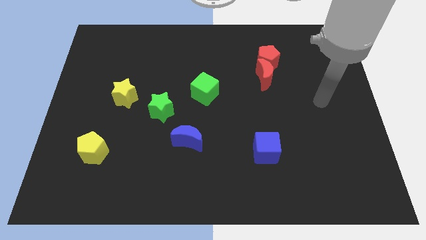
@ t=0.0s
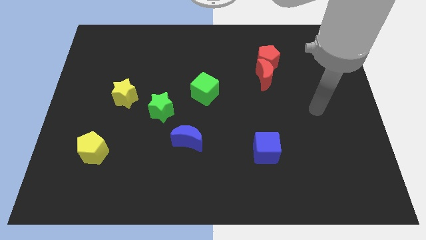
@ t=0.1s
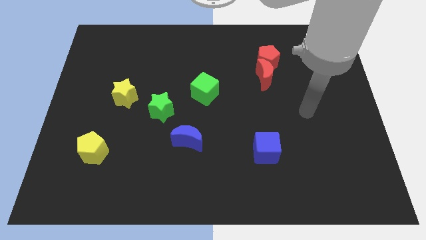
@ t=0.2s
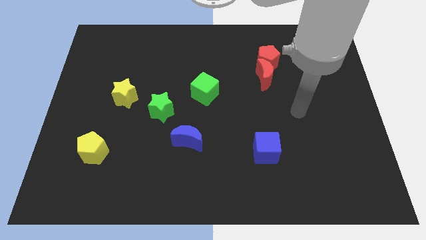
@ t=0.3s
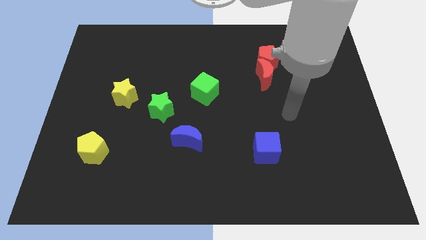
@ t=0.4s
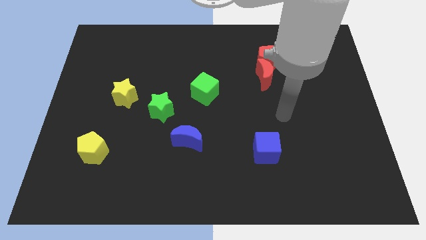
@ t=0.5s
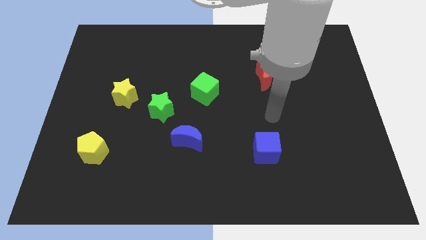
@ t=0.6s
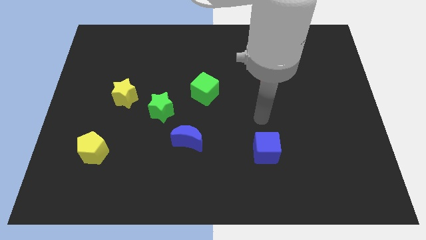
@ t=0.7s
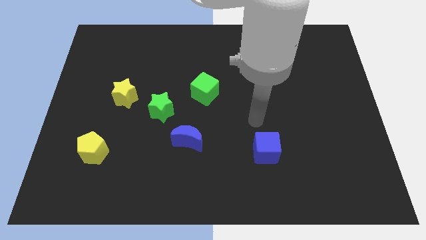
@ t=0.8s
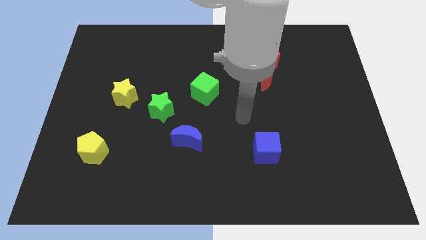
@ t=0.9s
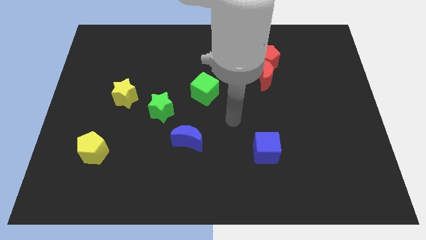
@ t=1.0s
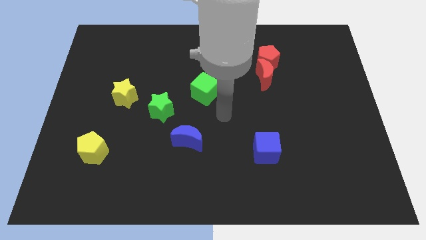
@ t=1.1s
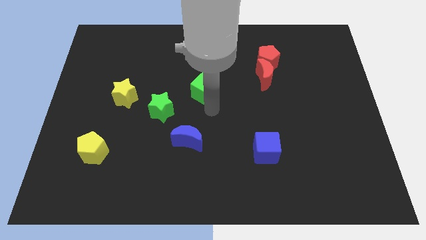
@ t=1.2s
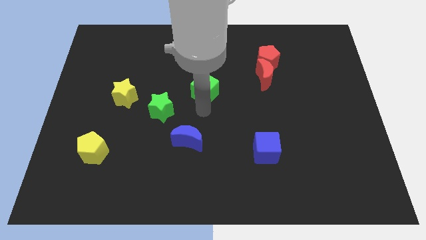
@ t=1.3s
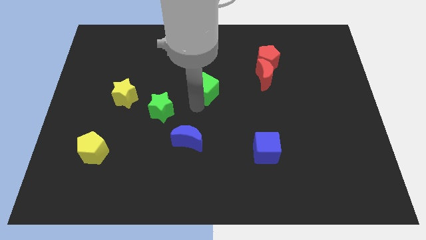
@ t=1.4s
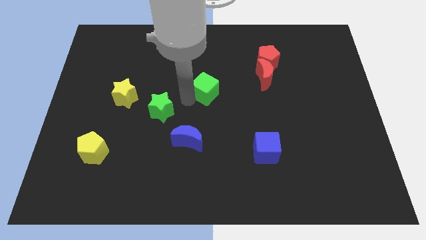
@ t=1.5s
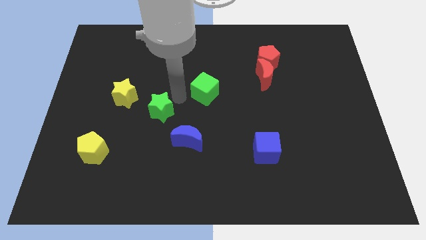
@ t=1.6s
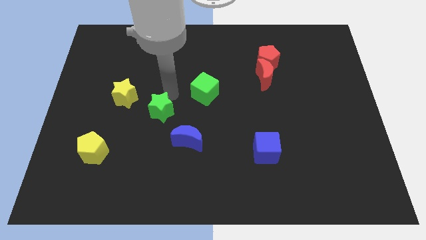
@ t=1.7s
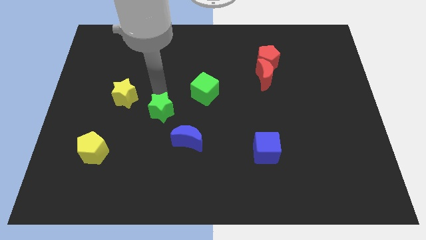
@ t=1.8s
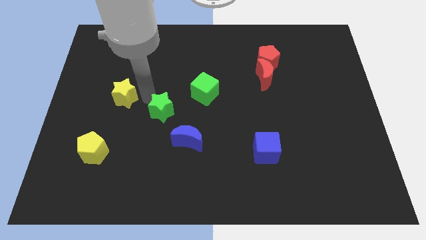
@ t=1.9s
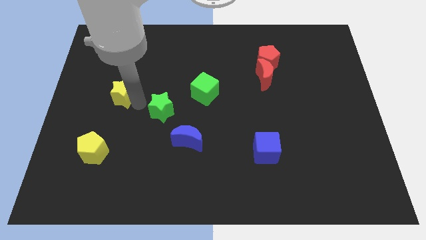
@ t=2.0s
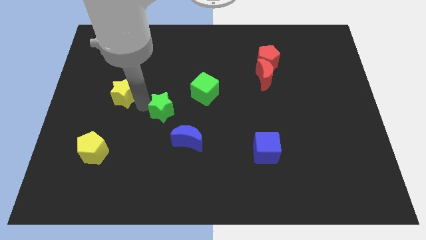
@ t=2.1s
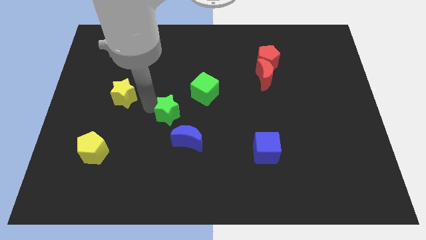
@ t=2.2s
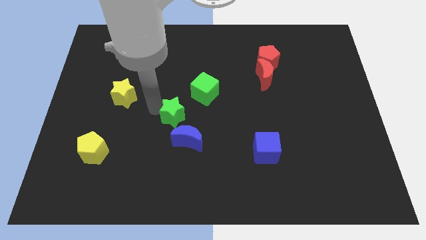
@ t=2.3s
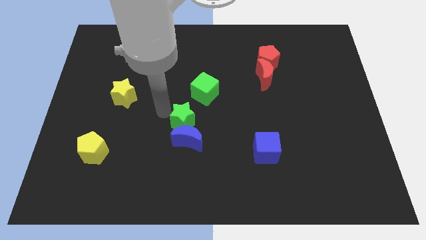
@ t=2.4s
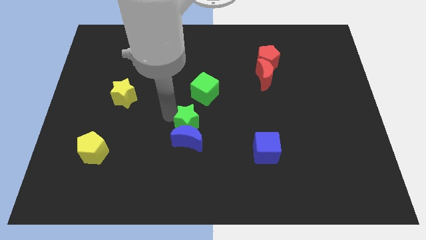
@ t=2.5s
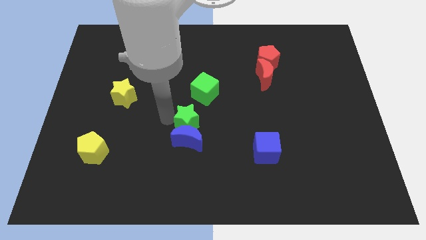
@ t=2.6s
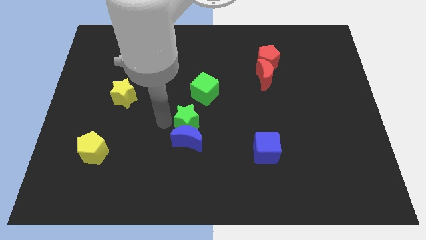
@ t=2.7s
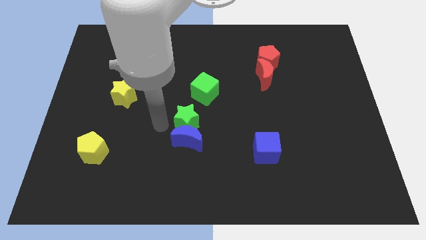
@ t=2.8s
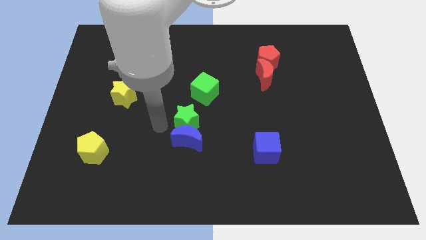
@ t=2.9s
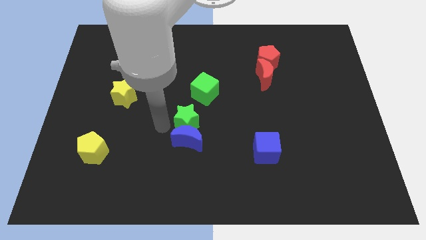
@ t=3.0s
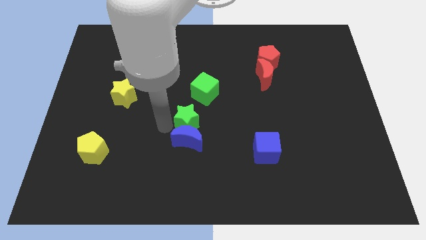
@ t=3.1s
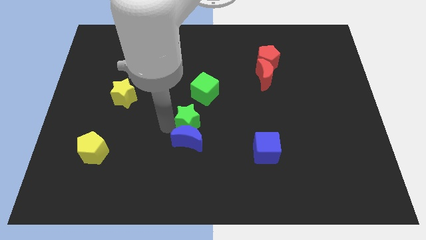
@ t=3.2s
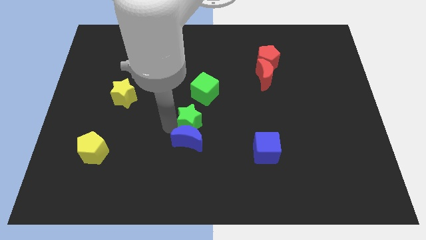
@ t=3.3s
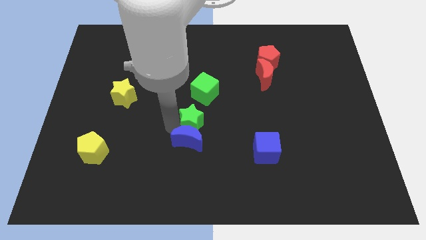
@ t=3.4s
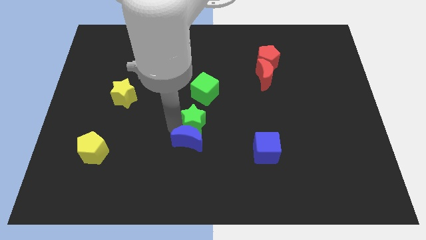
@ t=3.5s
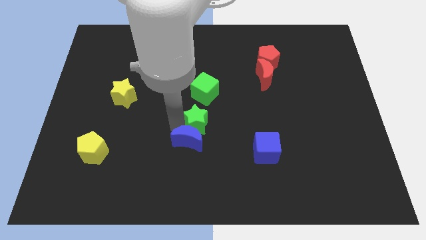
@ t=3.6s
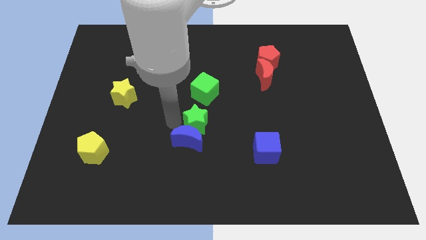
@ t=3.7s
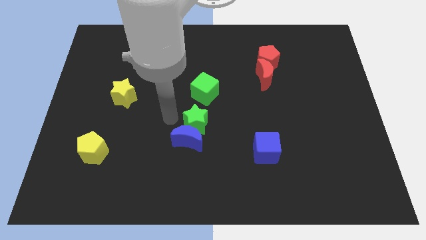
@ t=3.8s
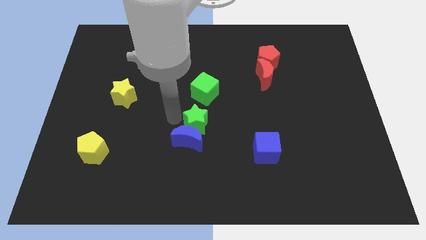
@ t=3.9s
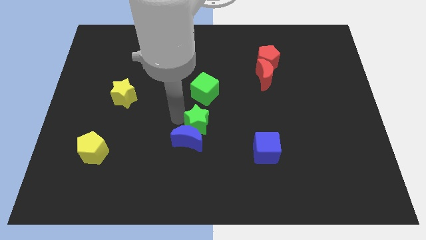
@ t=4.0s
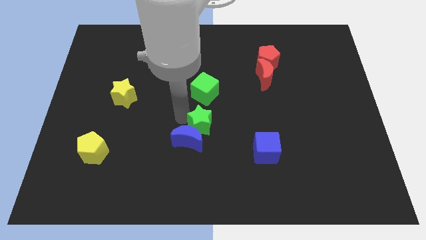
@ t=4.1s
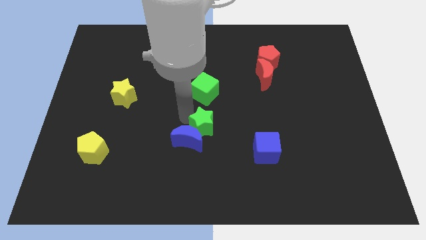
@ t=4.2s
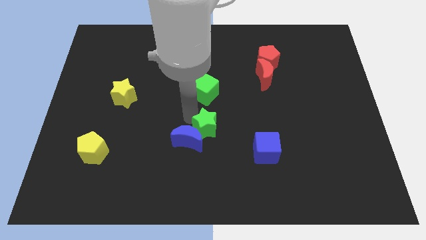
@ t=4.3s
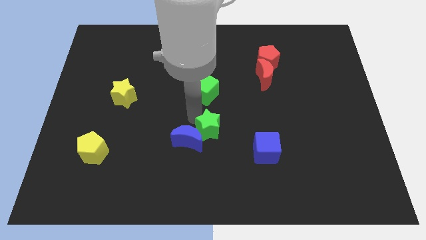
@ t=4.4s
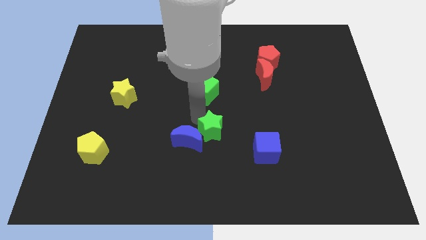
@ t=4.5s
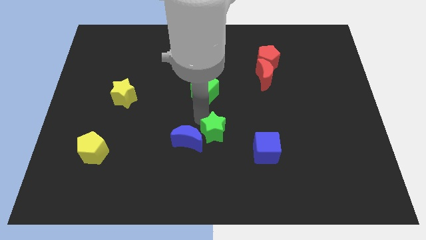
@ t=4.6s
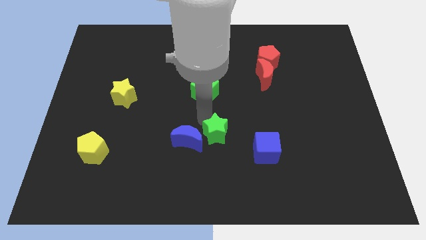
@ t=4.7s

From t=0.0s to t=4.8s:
push the green star diagonally up and to the left of the blue cube

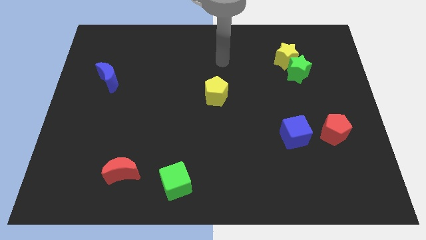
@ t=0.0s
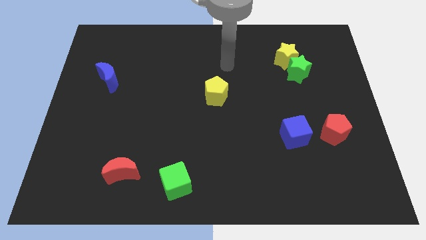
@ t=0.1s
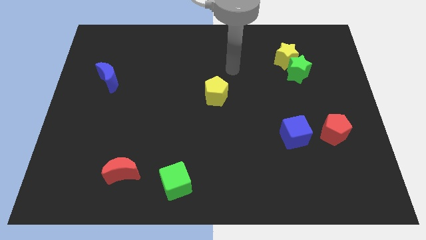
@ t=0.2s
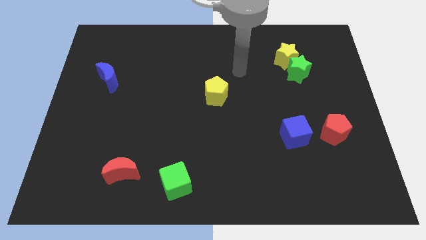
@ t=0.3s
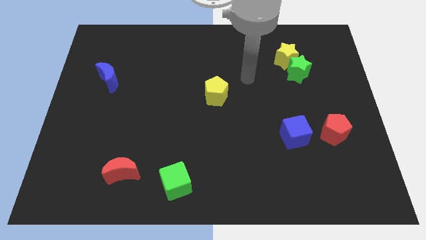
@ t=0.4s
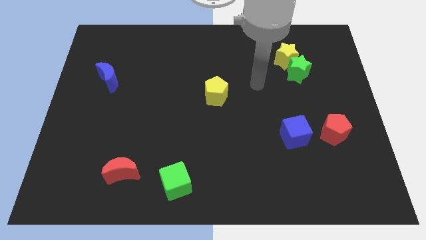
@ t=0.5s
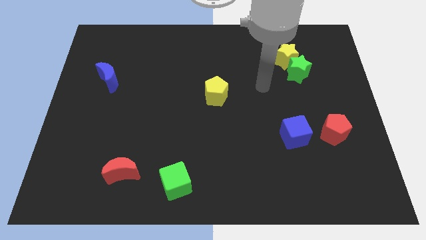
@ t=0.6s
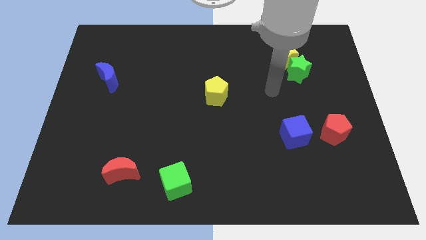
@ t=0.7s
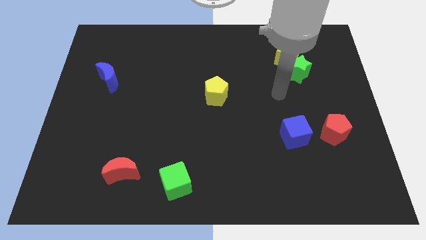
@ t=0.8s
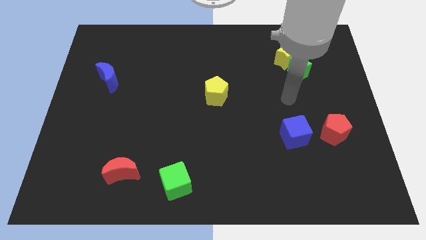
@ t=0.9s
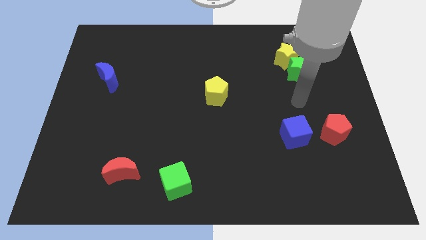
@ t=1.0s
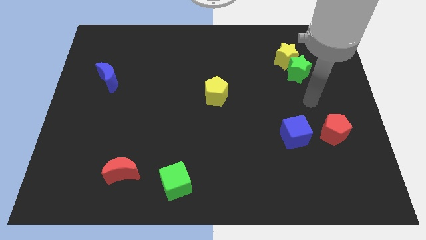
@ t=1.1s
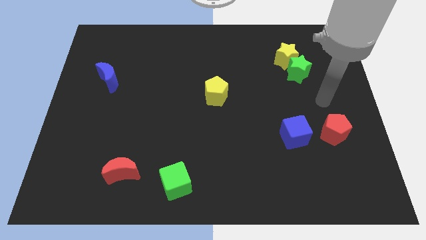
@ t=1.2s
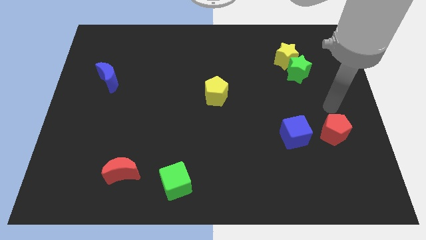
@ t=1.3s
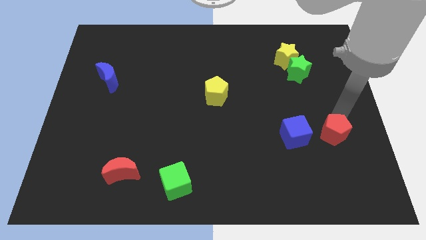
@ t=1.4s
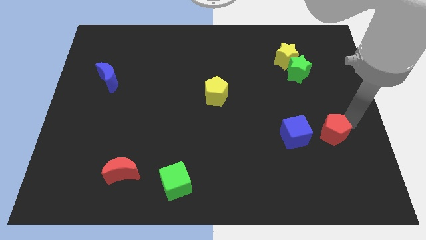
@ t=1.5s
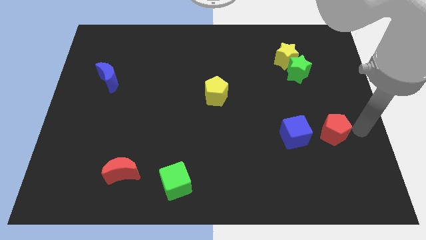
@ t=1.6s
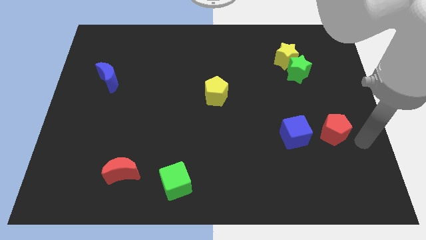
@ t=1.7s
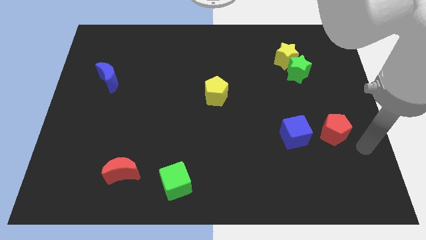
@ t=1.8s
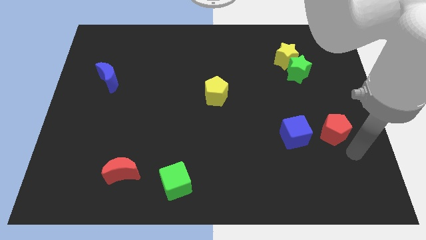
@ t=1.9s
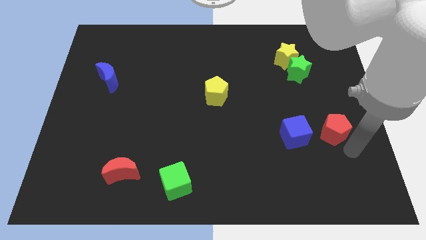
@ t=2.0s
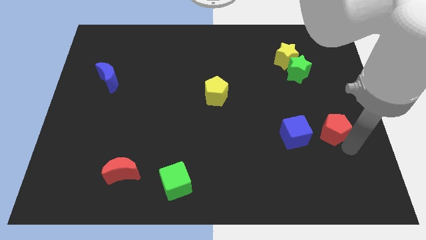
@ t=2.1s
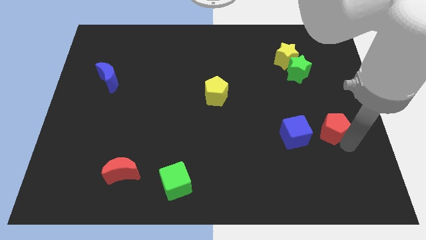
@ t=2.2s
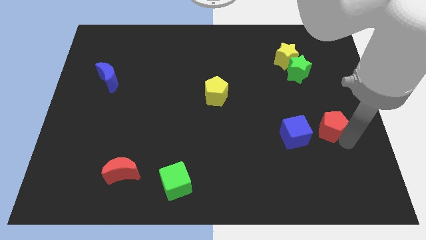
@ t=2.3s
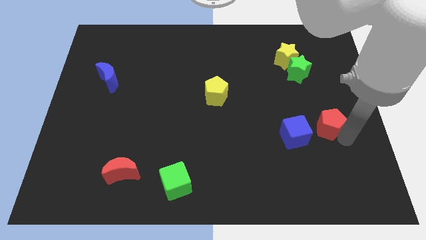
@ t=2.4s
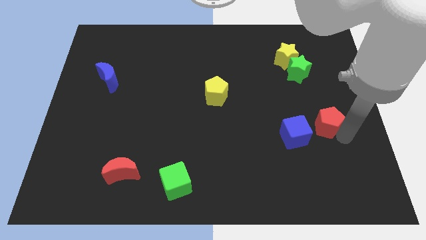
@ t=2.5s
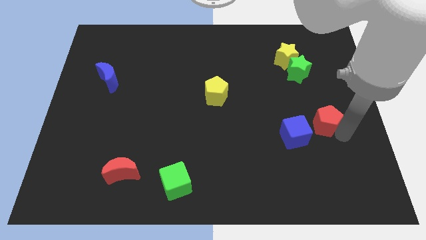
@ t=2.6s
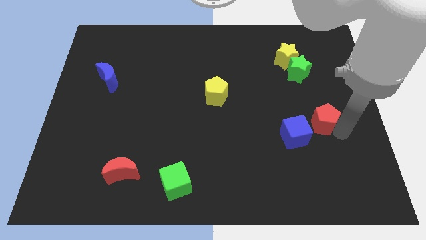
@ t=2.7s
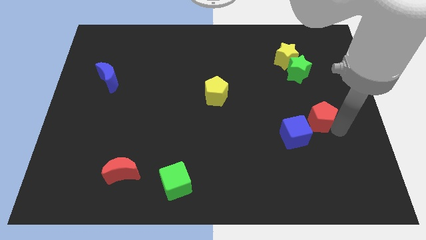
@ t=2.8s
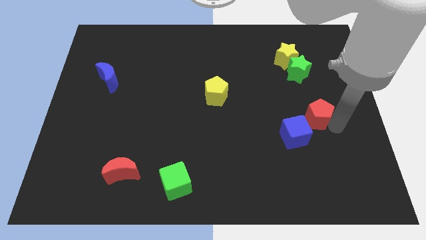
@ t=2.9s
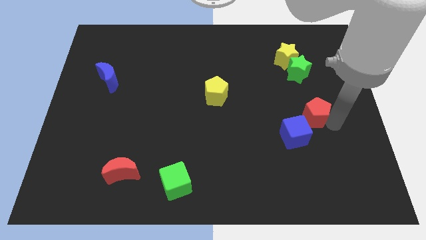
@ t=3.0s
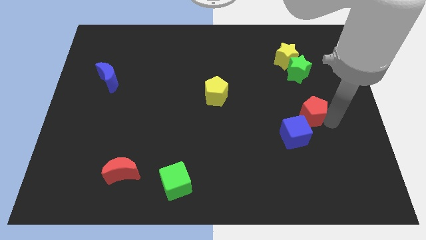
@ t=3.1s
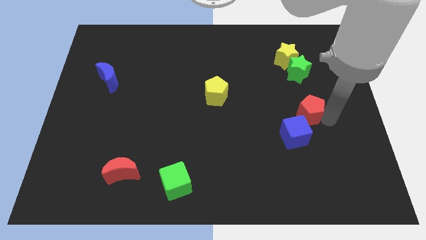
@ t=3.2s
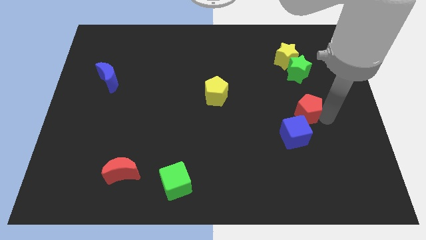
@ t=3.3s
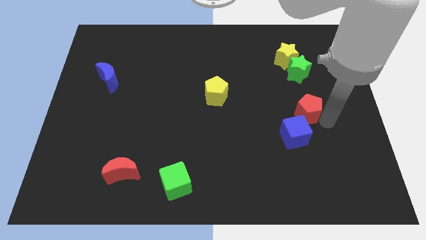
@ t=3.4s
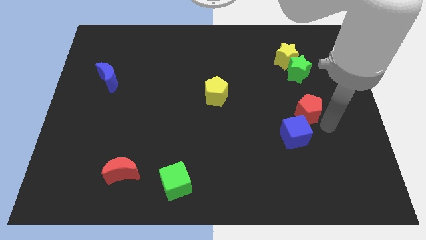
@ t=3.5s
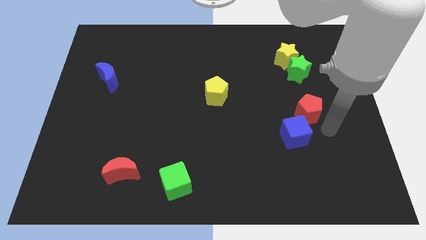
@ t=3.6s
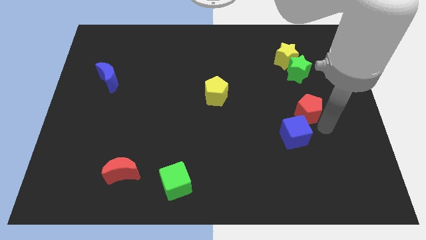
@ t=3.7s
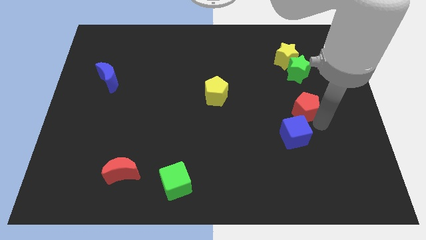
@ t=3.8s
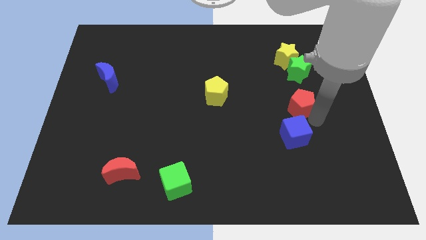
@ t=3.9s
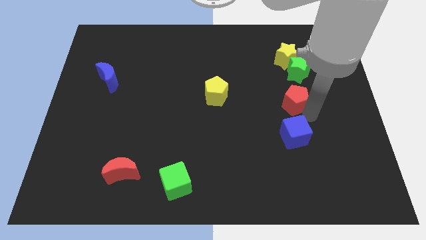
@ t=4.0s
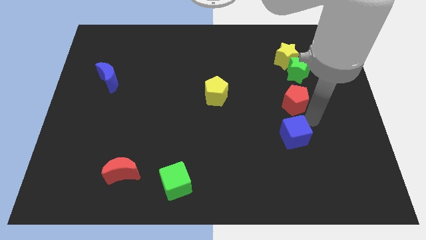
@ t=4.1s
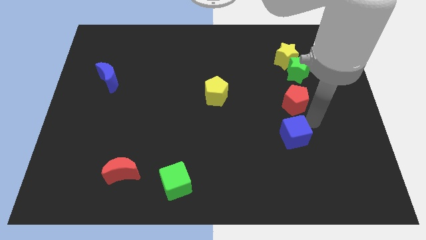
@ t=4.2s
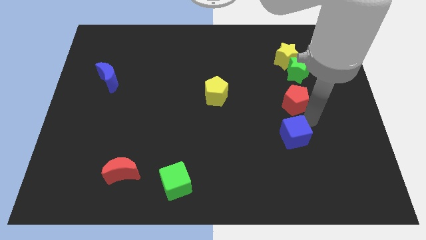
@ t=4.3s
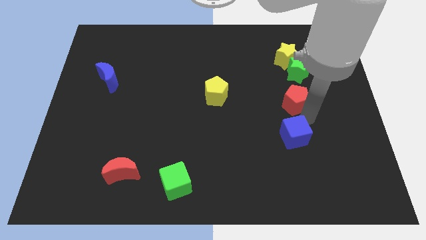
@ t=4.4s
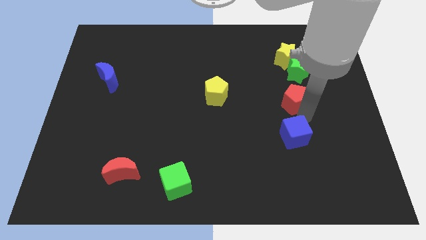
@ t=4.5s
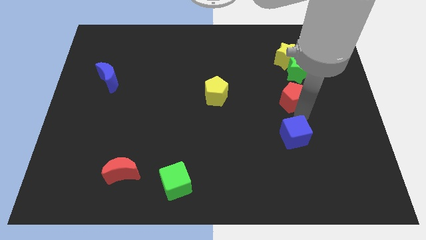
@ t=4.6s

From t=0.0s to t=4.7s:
slide the red pentagon to the bottom left of the green star
